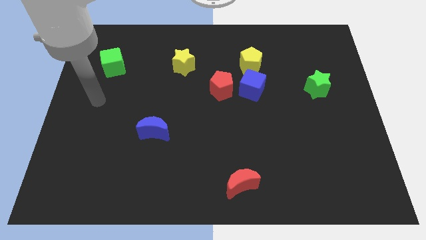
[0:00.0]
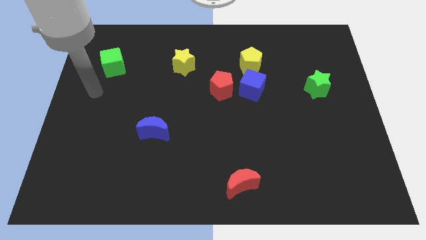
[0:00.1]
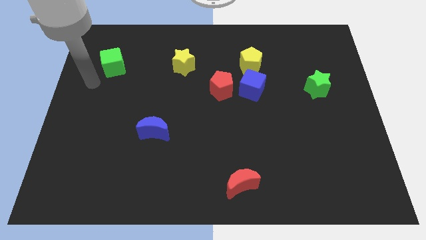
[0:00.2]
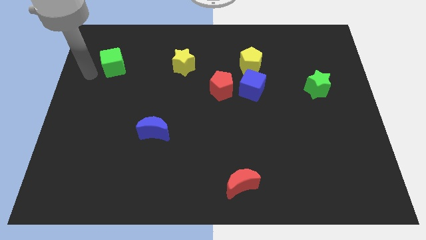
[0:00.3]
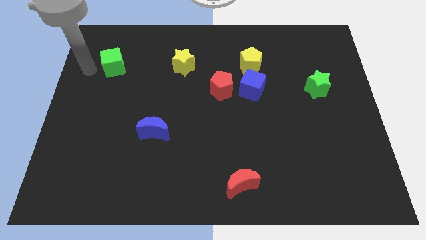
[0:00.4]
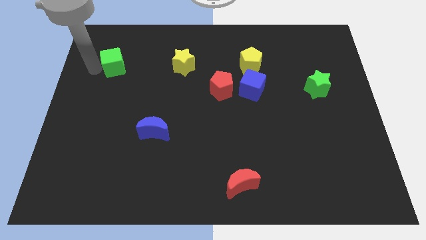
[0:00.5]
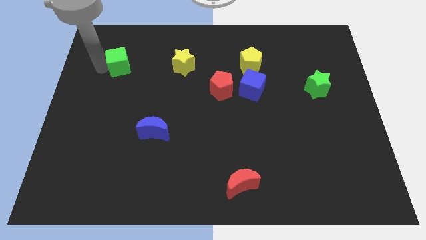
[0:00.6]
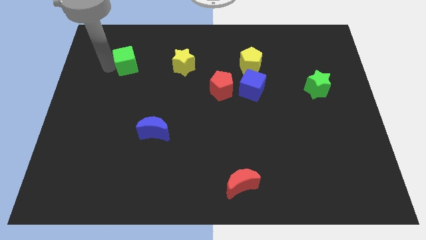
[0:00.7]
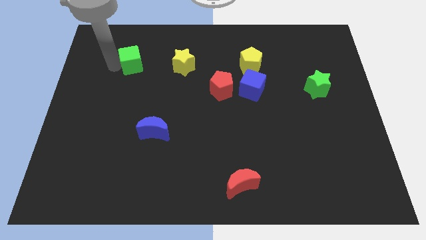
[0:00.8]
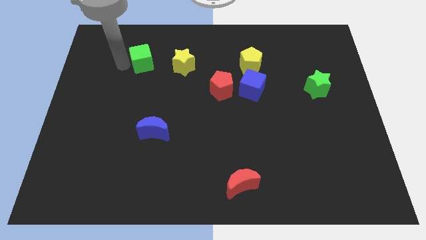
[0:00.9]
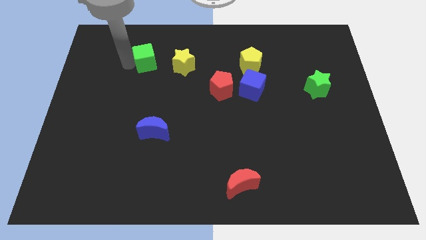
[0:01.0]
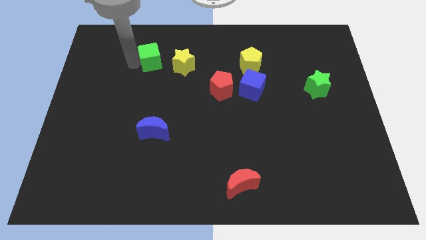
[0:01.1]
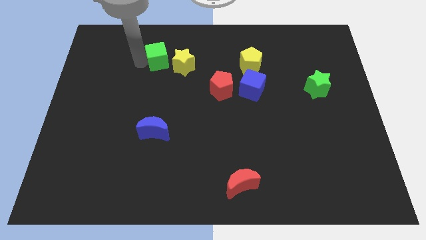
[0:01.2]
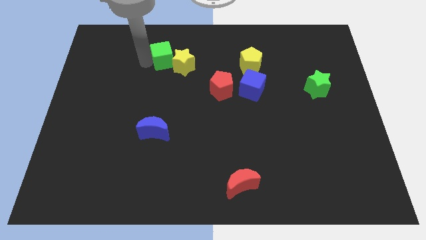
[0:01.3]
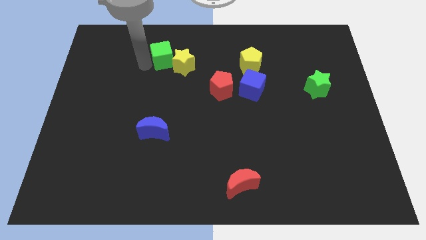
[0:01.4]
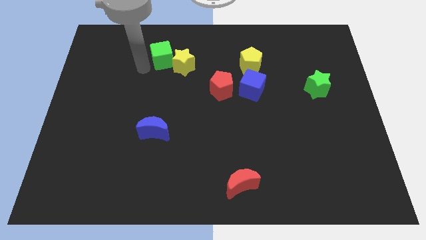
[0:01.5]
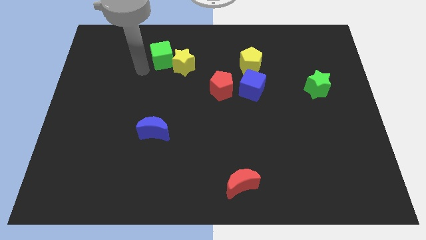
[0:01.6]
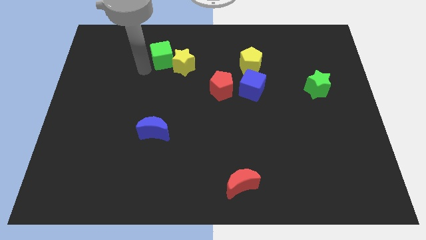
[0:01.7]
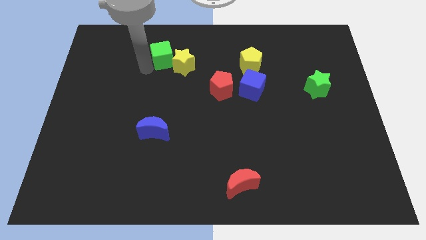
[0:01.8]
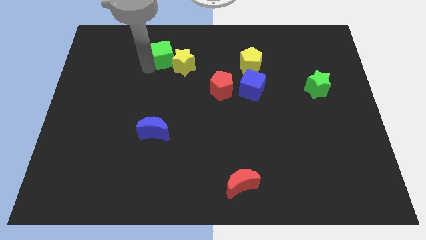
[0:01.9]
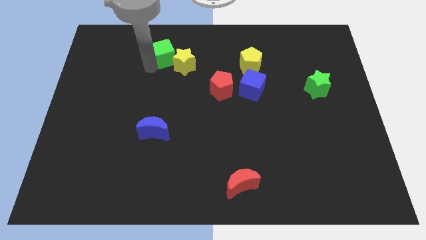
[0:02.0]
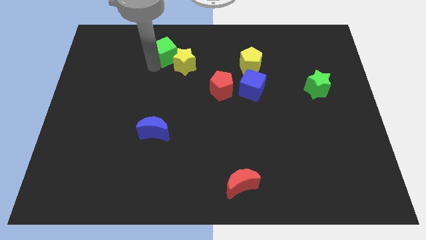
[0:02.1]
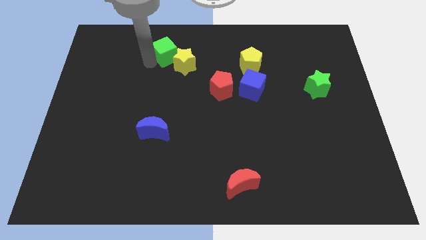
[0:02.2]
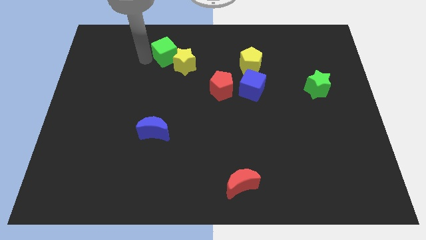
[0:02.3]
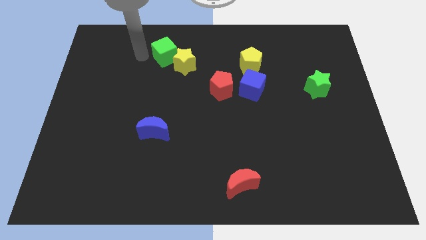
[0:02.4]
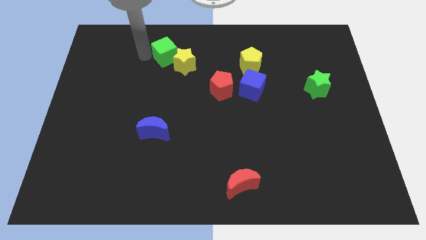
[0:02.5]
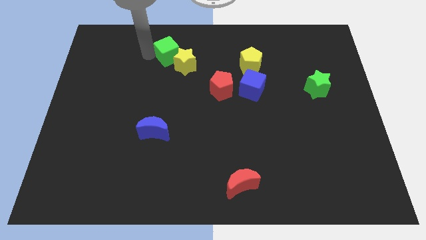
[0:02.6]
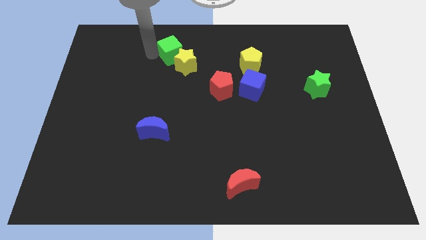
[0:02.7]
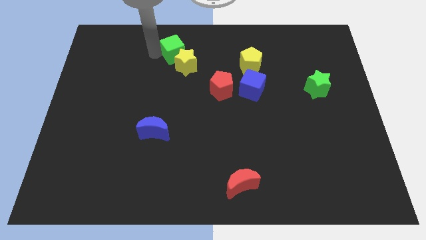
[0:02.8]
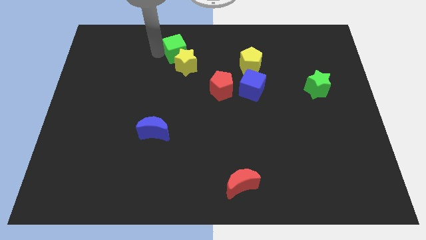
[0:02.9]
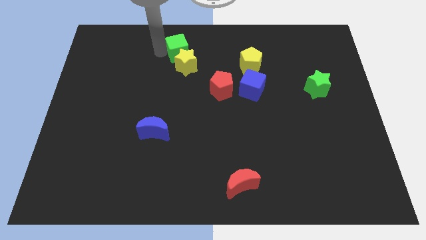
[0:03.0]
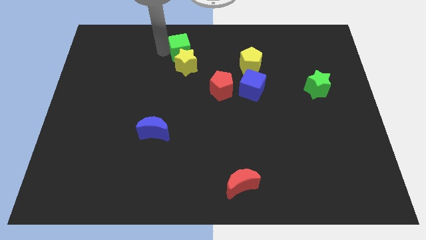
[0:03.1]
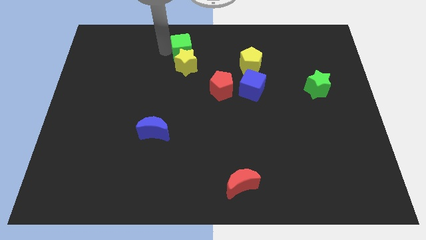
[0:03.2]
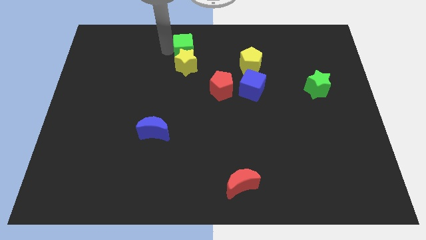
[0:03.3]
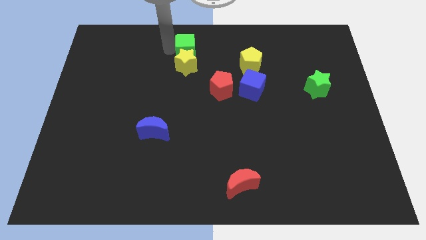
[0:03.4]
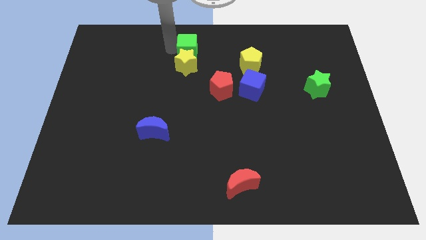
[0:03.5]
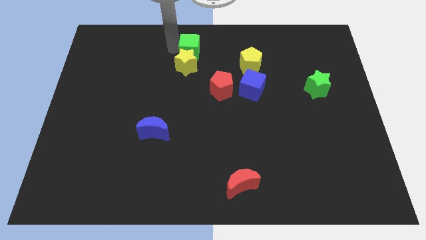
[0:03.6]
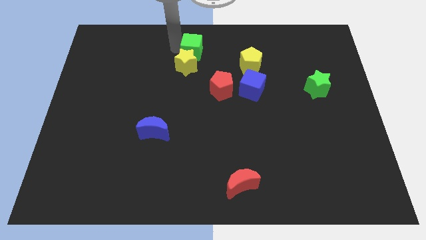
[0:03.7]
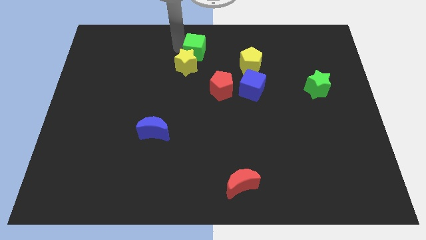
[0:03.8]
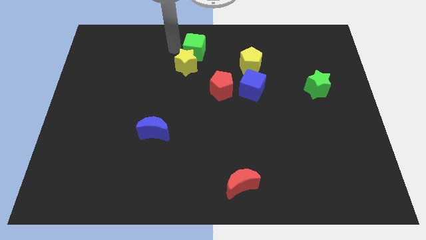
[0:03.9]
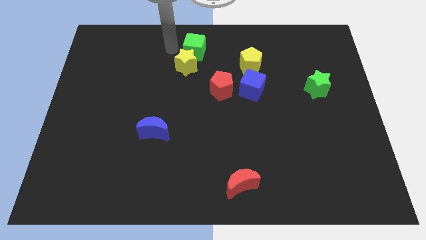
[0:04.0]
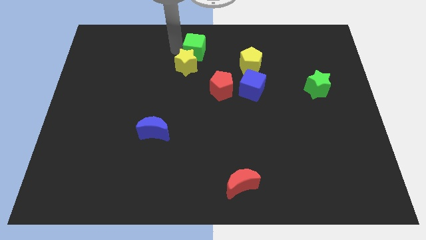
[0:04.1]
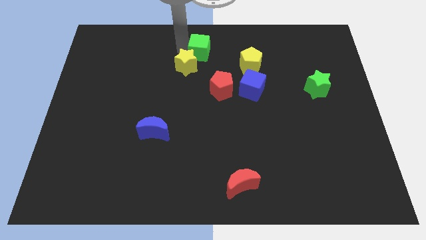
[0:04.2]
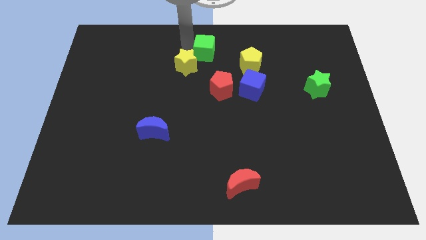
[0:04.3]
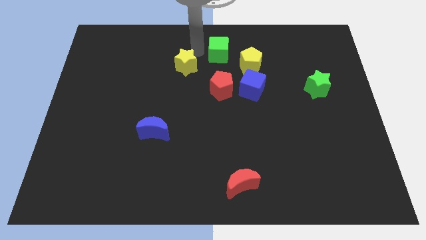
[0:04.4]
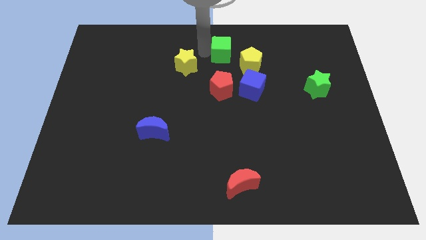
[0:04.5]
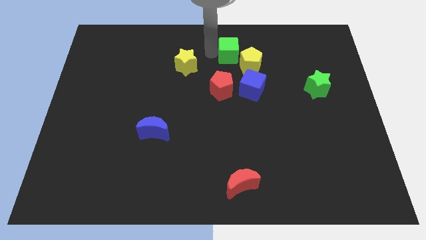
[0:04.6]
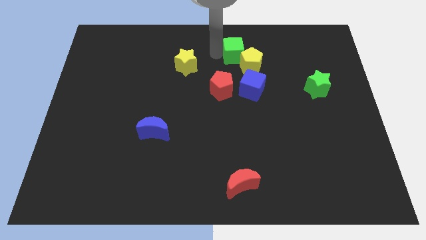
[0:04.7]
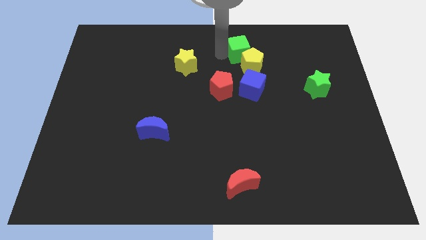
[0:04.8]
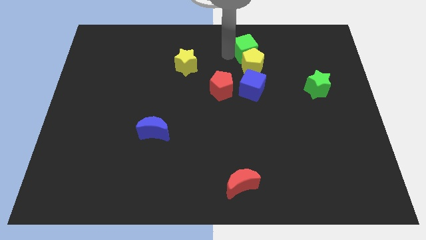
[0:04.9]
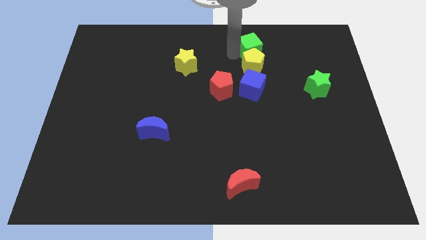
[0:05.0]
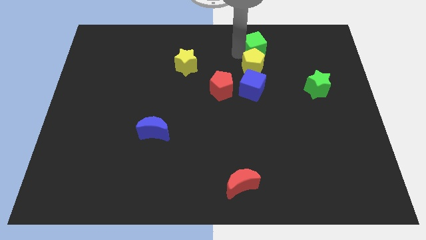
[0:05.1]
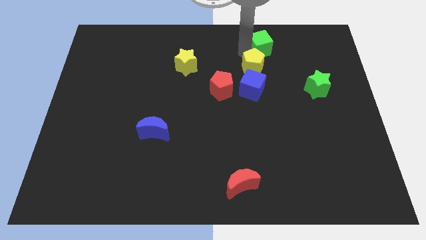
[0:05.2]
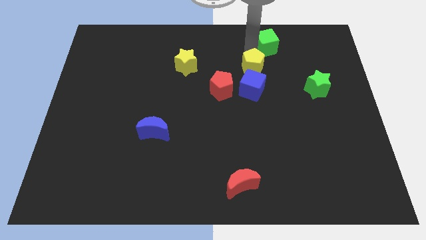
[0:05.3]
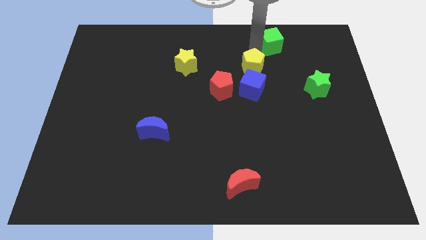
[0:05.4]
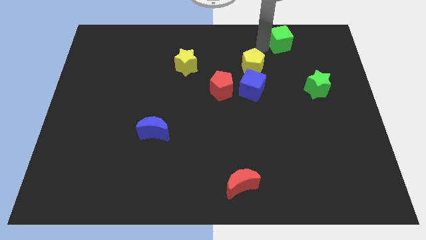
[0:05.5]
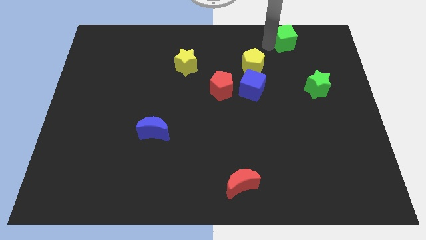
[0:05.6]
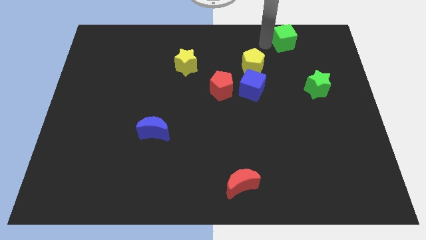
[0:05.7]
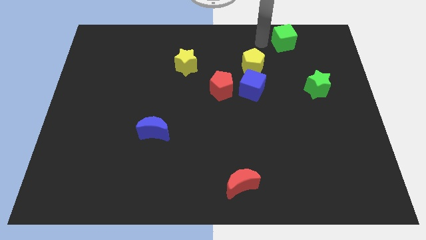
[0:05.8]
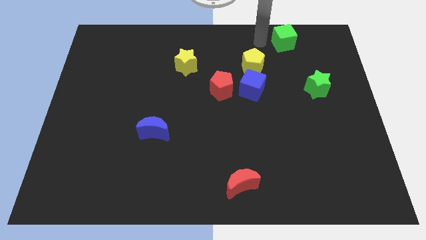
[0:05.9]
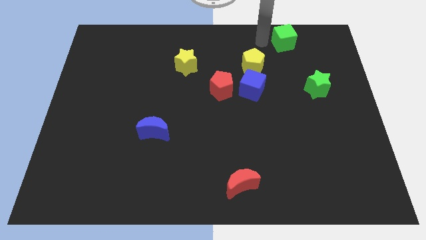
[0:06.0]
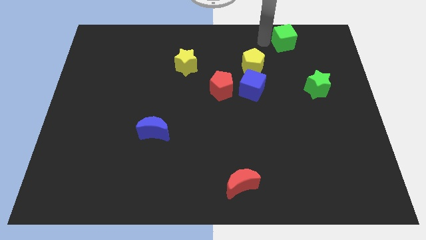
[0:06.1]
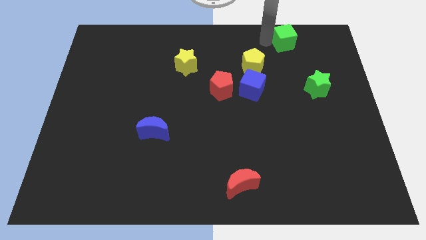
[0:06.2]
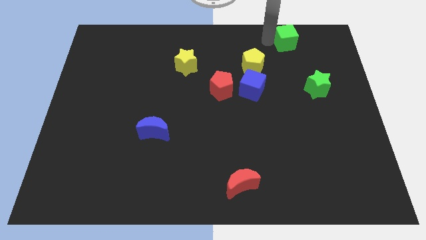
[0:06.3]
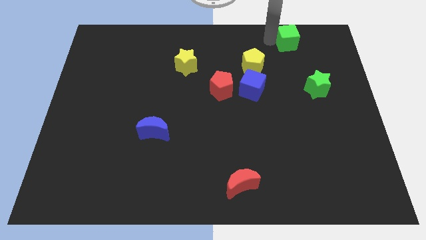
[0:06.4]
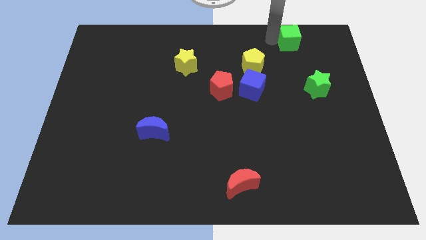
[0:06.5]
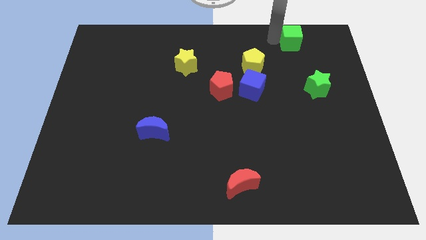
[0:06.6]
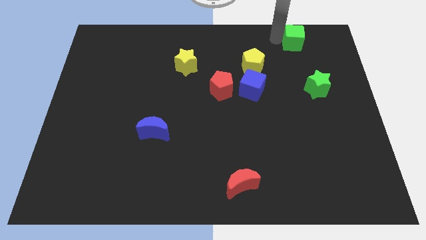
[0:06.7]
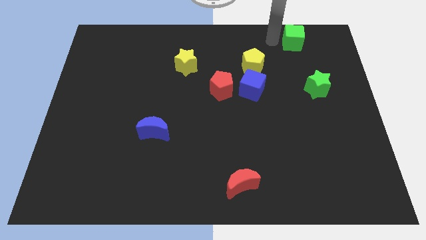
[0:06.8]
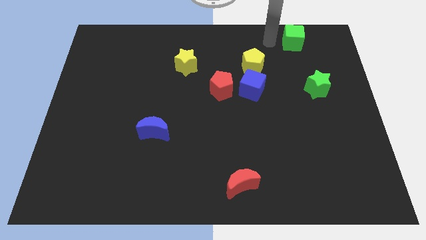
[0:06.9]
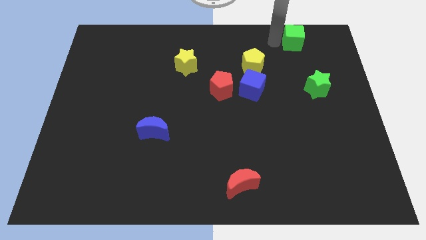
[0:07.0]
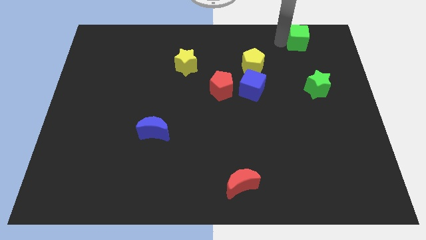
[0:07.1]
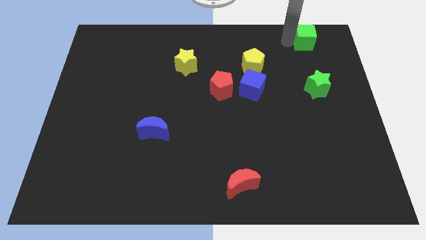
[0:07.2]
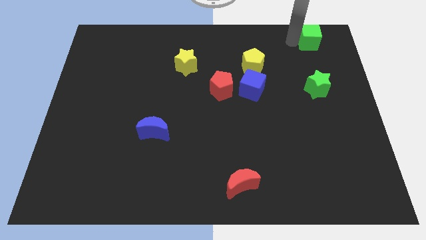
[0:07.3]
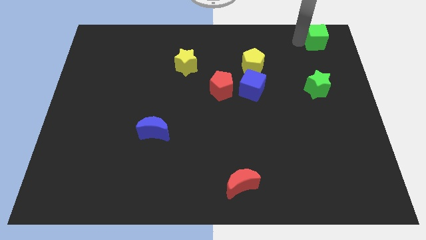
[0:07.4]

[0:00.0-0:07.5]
slide the green cube to the top right
